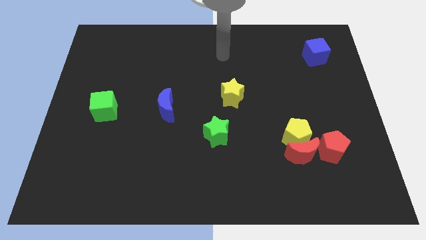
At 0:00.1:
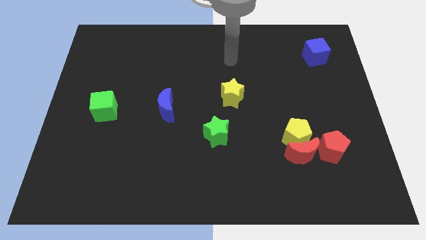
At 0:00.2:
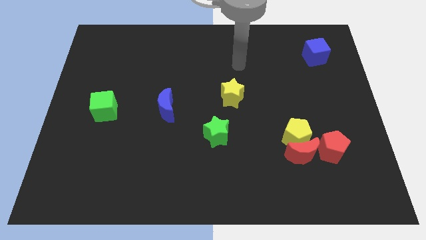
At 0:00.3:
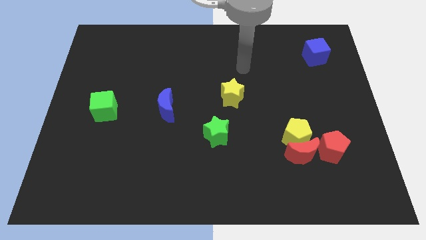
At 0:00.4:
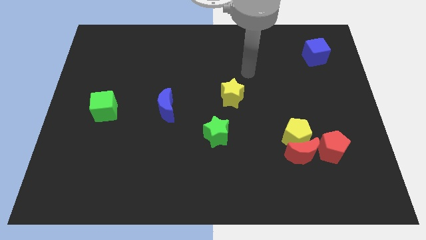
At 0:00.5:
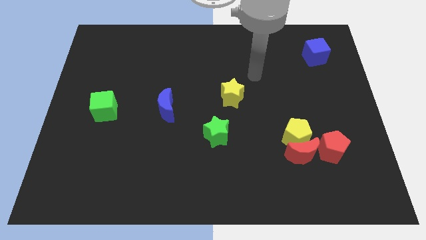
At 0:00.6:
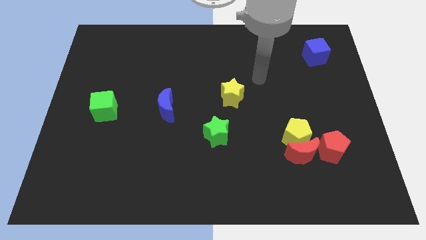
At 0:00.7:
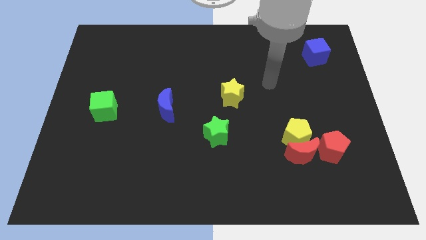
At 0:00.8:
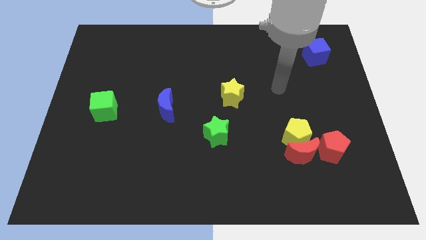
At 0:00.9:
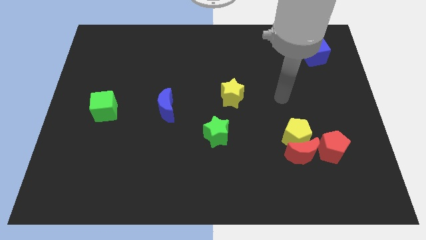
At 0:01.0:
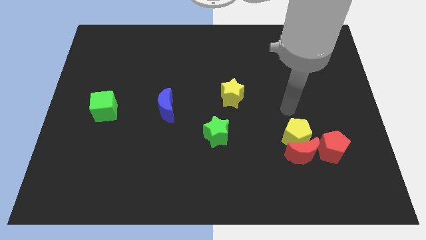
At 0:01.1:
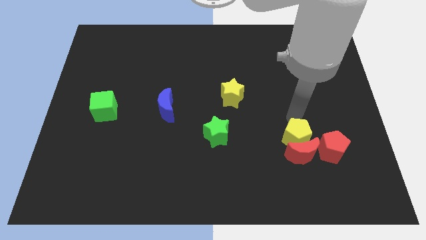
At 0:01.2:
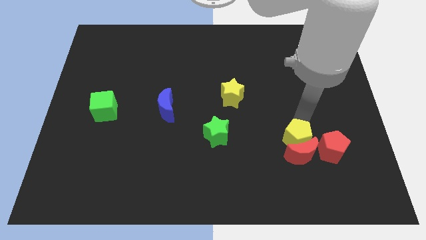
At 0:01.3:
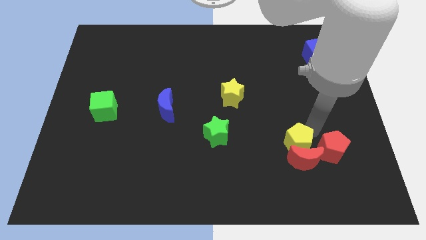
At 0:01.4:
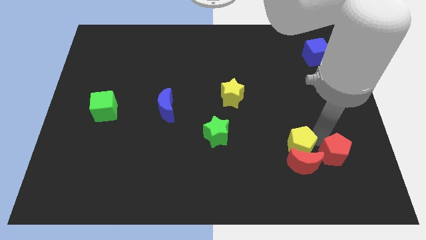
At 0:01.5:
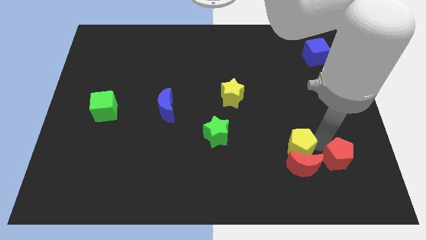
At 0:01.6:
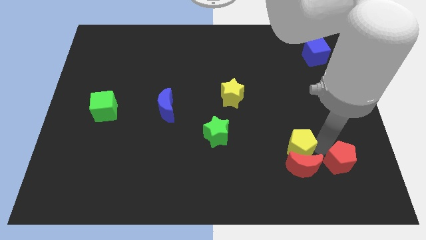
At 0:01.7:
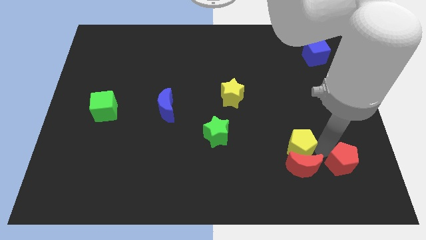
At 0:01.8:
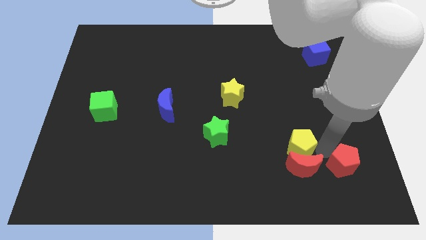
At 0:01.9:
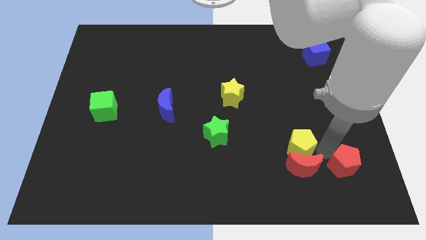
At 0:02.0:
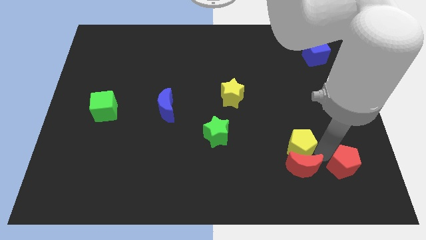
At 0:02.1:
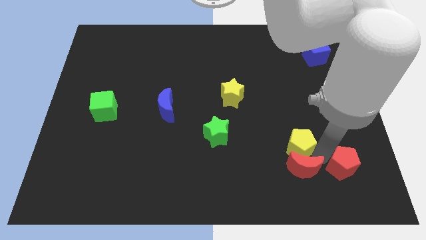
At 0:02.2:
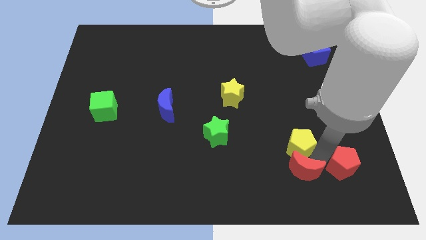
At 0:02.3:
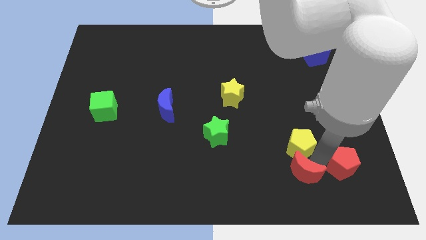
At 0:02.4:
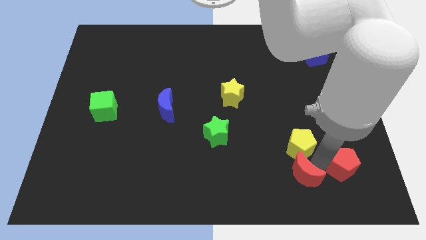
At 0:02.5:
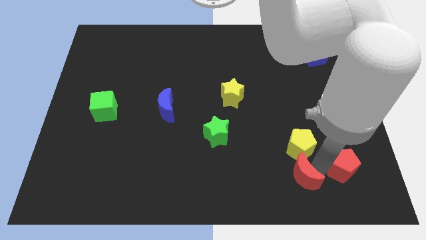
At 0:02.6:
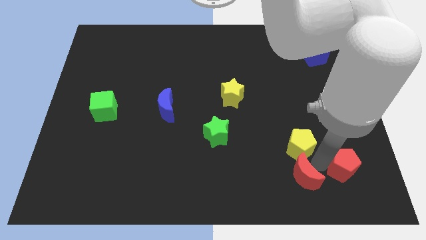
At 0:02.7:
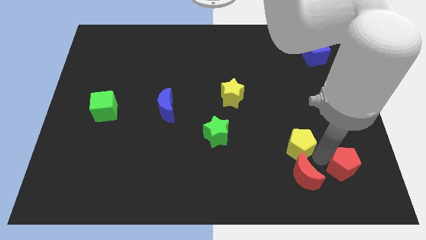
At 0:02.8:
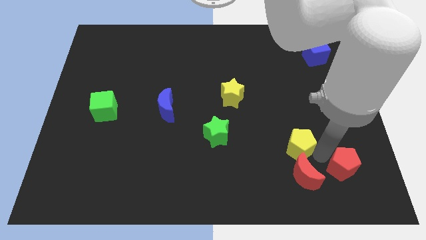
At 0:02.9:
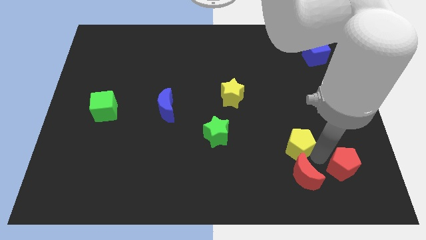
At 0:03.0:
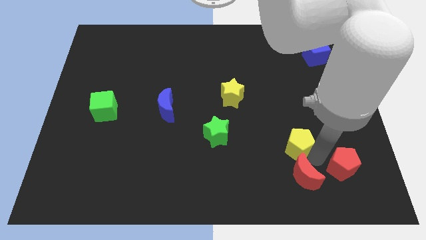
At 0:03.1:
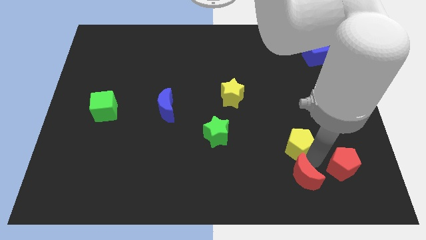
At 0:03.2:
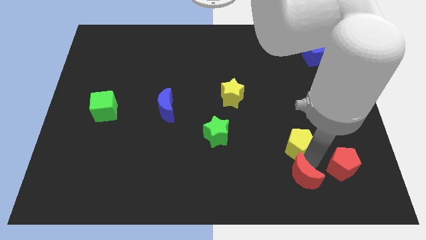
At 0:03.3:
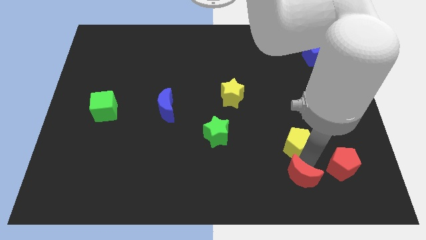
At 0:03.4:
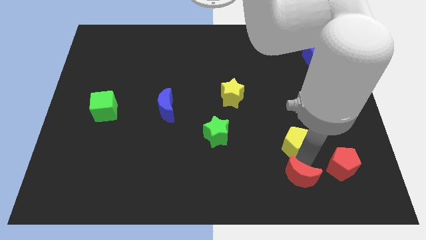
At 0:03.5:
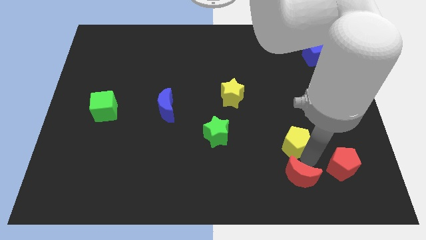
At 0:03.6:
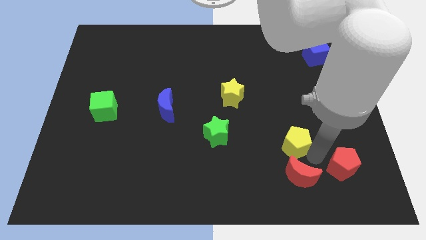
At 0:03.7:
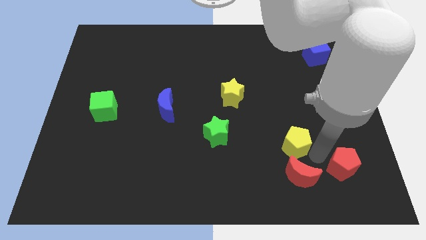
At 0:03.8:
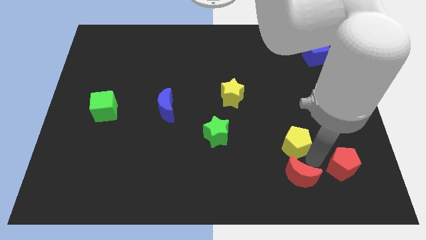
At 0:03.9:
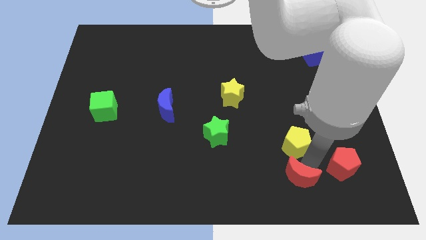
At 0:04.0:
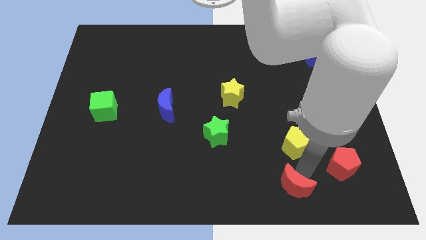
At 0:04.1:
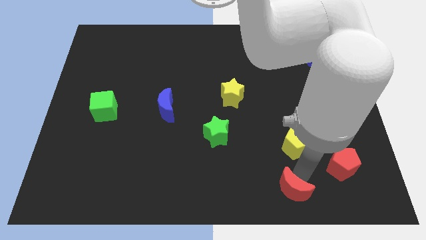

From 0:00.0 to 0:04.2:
move the red moon away from the yellow pentagon and red pentagon

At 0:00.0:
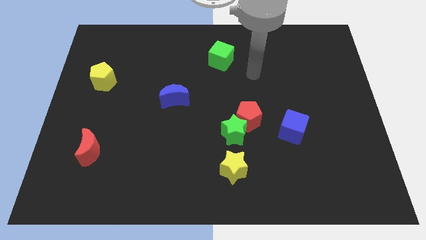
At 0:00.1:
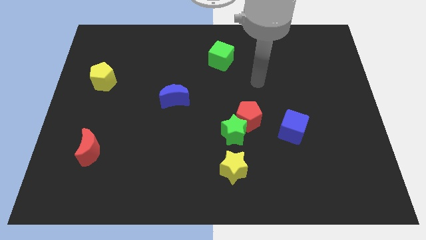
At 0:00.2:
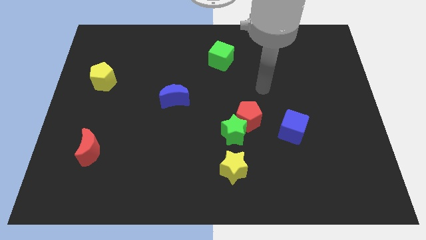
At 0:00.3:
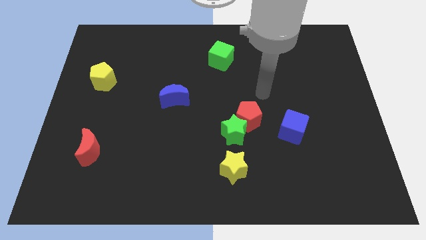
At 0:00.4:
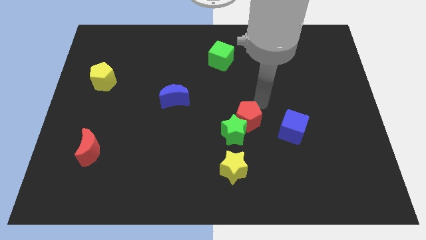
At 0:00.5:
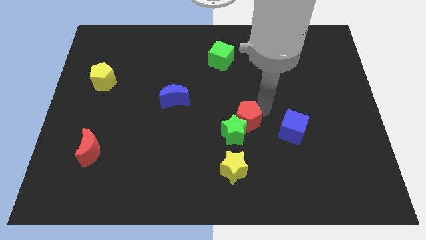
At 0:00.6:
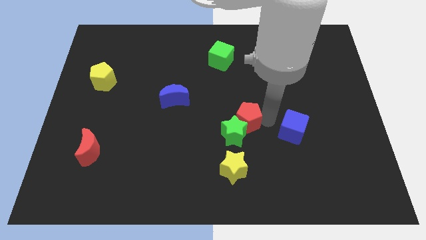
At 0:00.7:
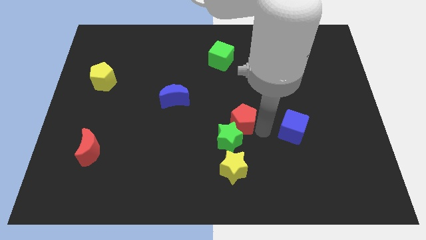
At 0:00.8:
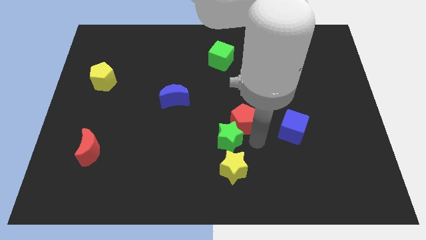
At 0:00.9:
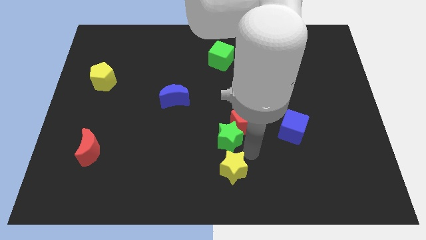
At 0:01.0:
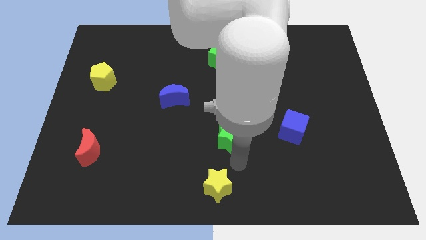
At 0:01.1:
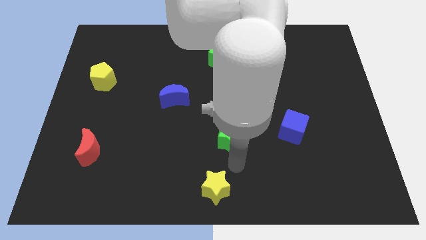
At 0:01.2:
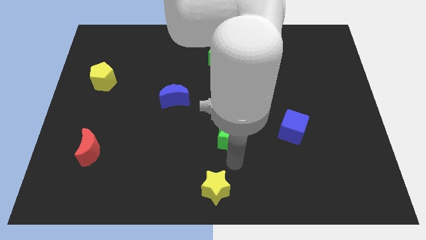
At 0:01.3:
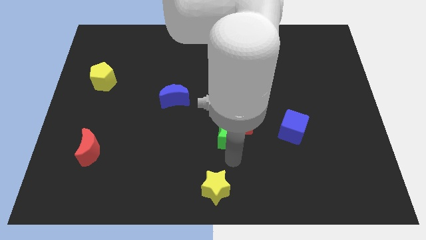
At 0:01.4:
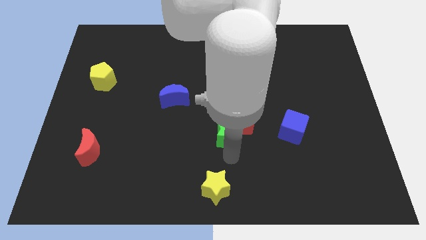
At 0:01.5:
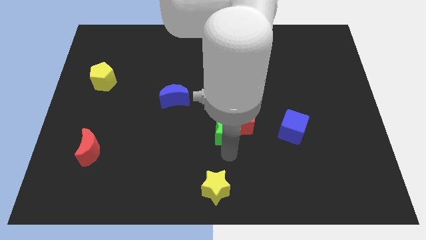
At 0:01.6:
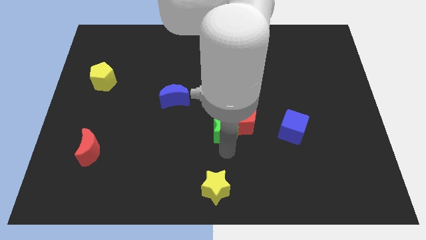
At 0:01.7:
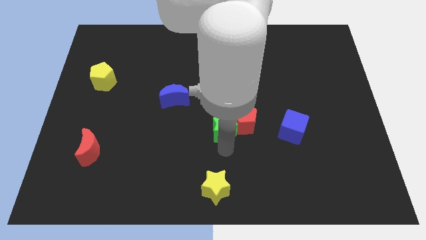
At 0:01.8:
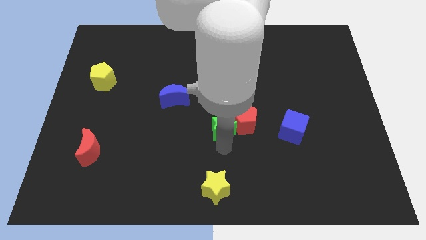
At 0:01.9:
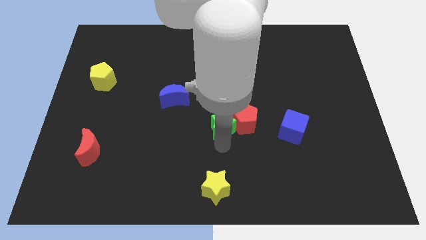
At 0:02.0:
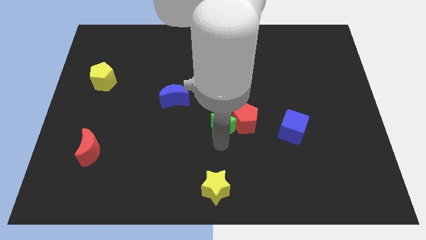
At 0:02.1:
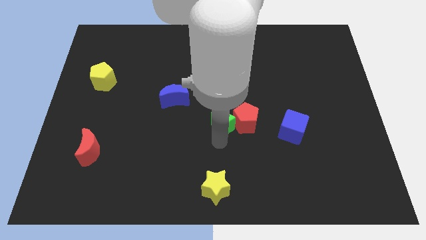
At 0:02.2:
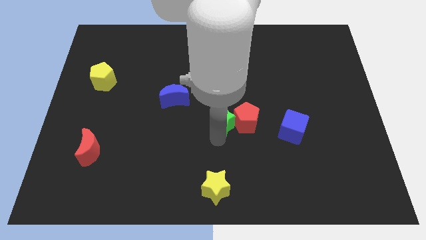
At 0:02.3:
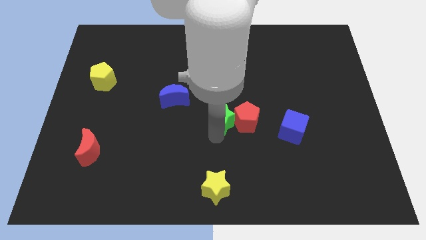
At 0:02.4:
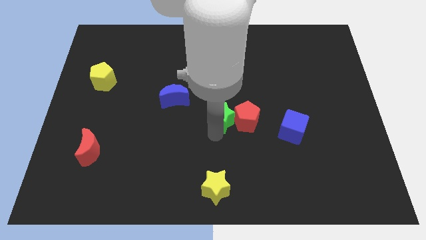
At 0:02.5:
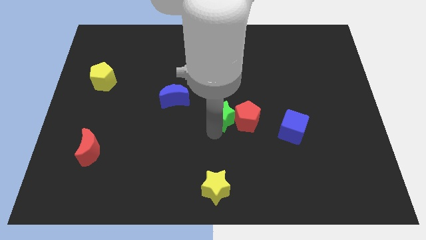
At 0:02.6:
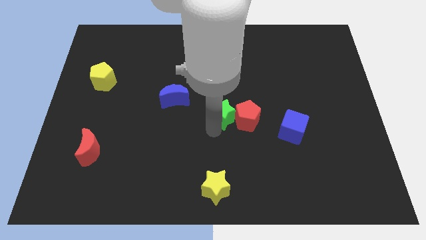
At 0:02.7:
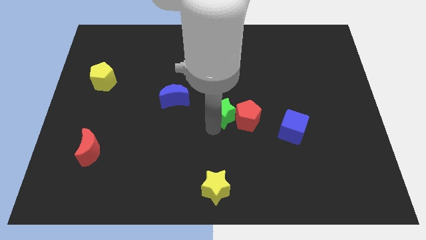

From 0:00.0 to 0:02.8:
pull the green star apart from the red pentagon and yellow star

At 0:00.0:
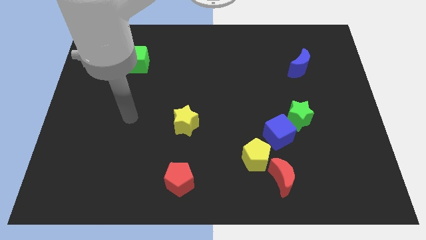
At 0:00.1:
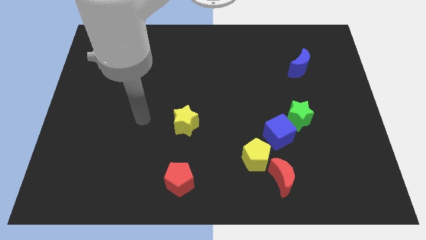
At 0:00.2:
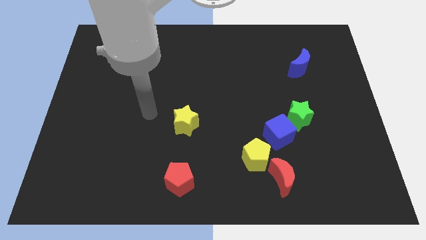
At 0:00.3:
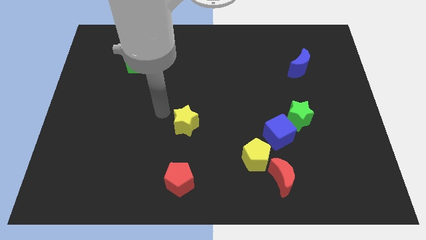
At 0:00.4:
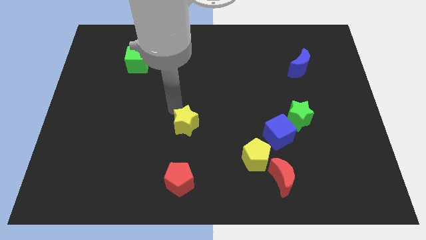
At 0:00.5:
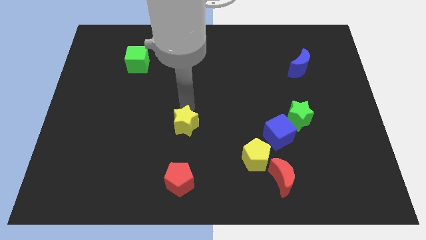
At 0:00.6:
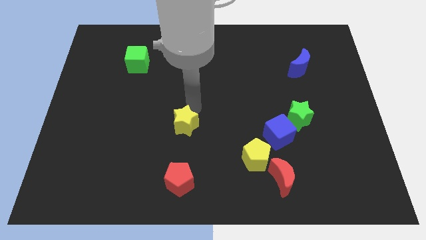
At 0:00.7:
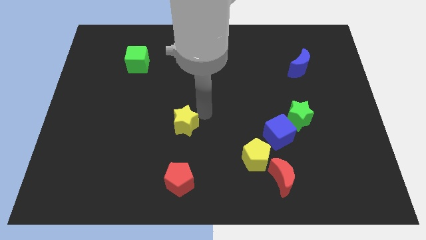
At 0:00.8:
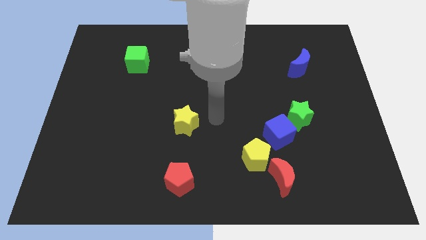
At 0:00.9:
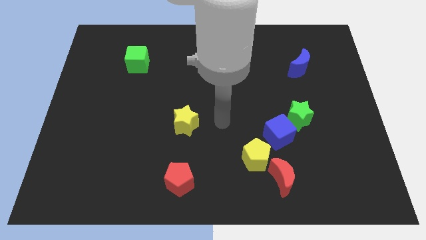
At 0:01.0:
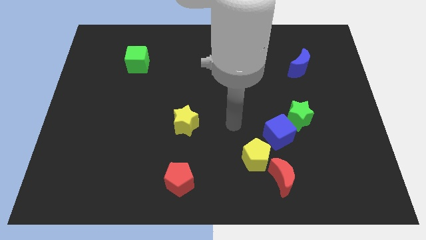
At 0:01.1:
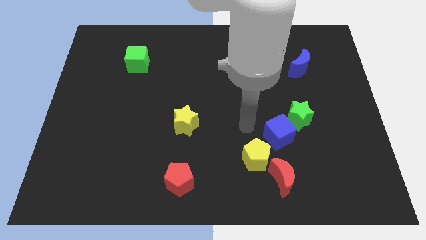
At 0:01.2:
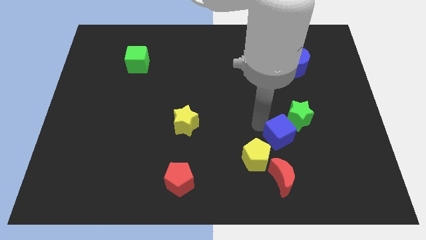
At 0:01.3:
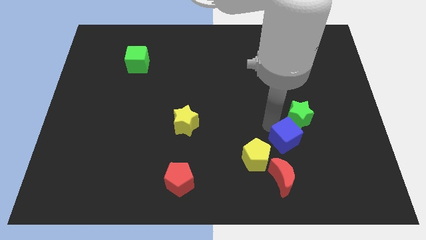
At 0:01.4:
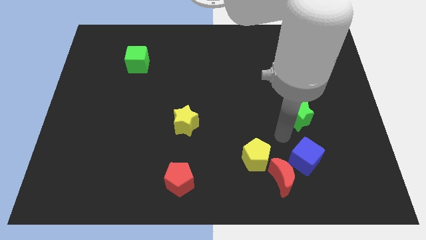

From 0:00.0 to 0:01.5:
move the green star away from the blue cube

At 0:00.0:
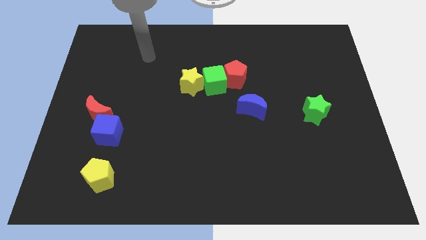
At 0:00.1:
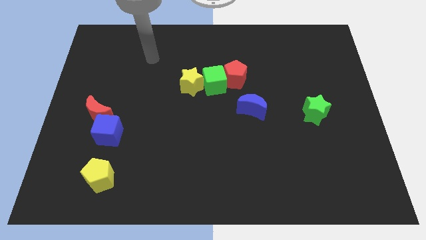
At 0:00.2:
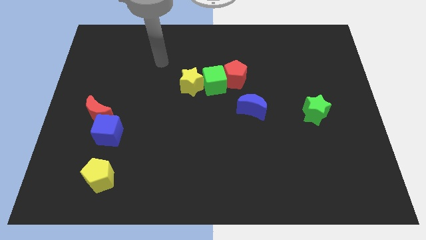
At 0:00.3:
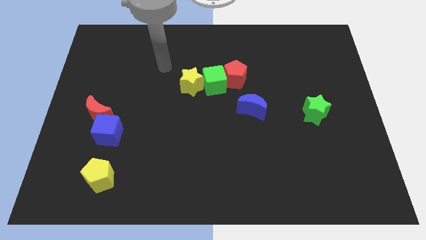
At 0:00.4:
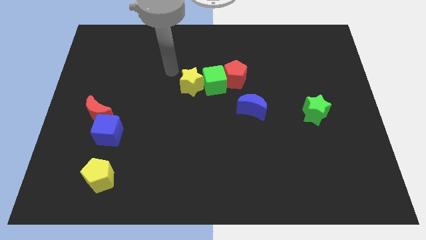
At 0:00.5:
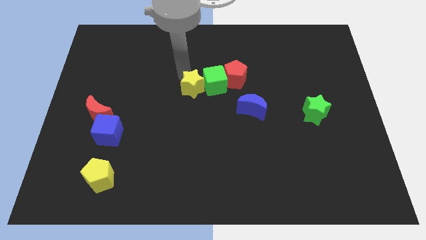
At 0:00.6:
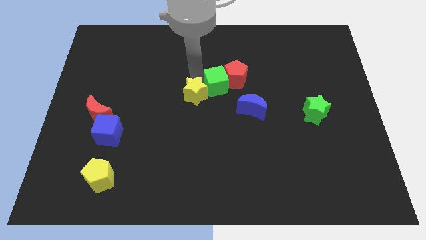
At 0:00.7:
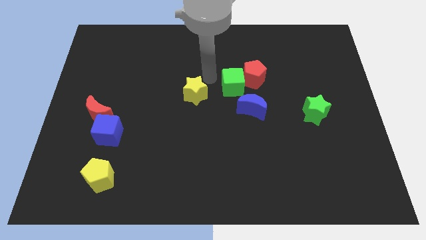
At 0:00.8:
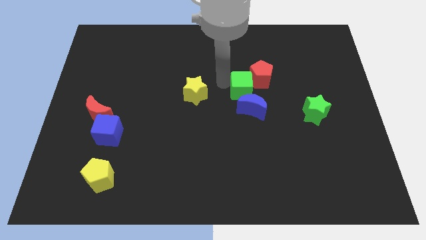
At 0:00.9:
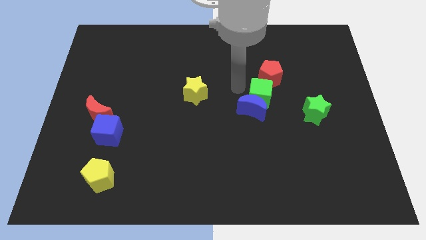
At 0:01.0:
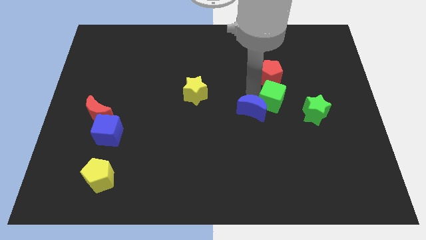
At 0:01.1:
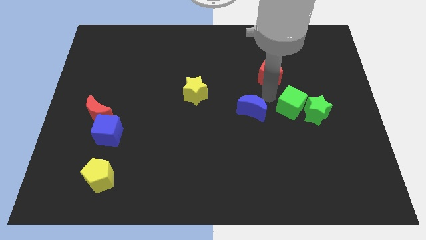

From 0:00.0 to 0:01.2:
pull the red pentagon apart from the green cube
